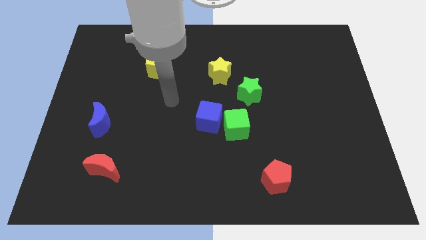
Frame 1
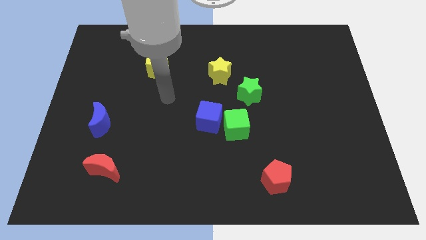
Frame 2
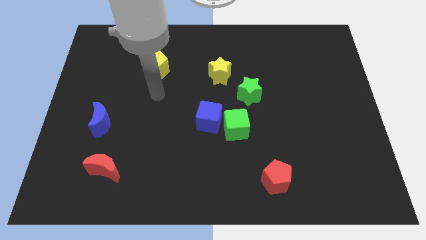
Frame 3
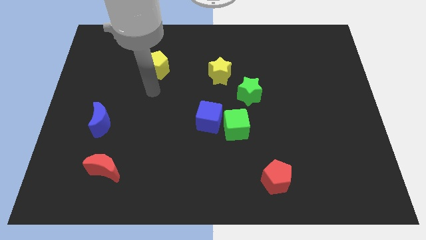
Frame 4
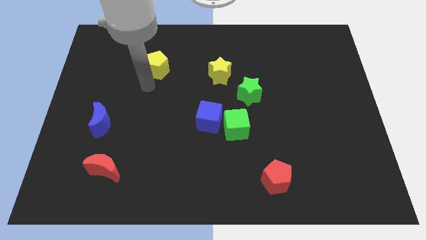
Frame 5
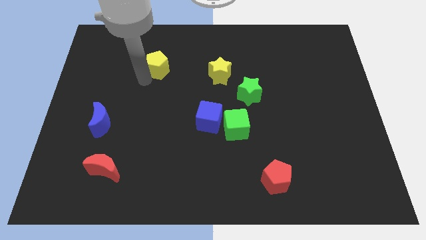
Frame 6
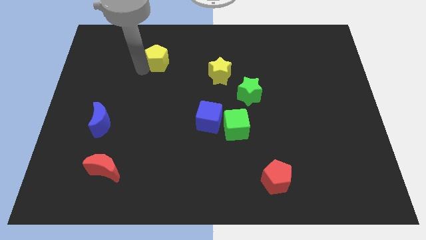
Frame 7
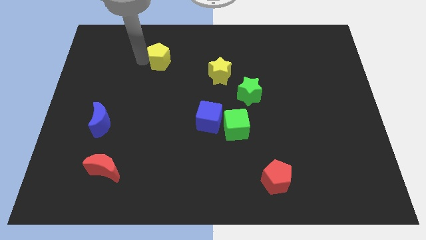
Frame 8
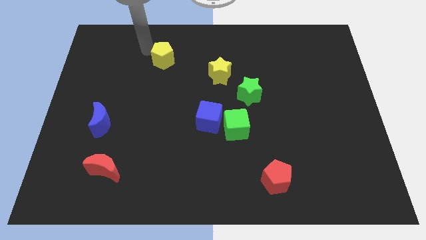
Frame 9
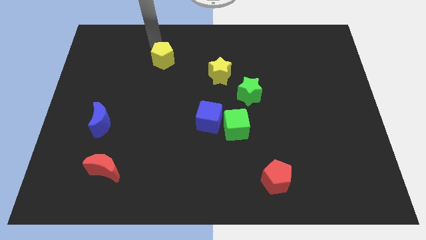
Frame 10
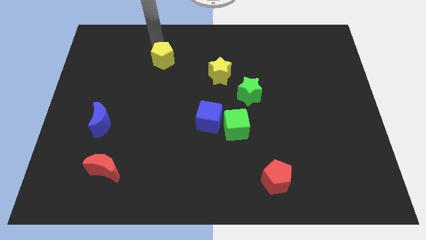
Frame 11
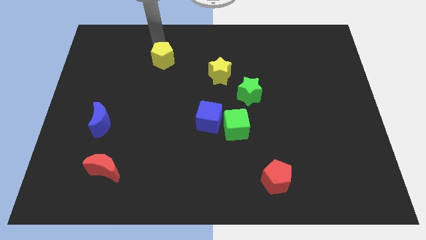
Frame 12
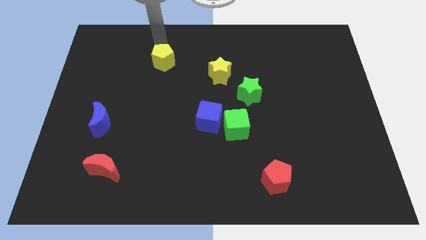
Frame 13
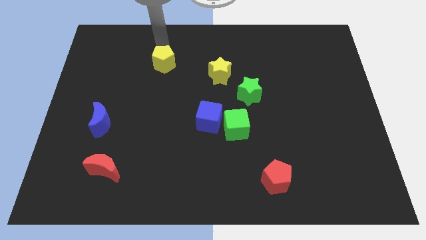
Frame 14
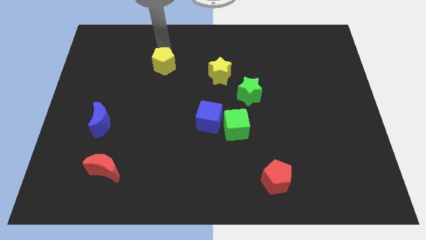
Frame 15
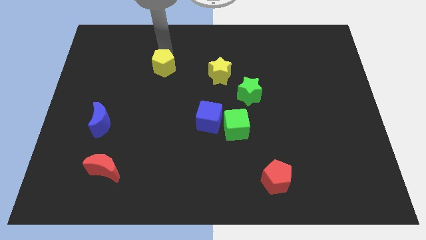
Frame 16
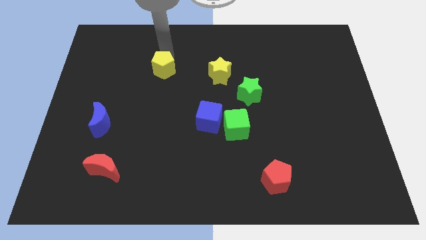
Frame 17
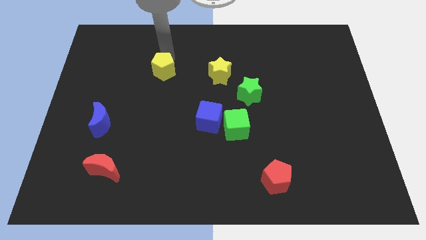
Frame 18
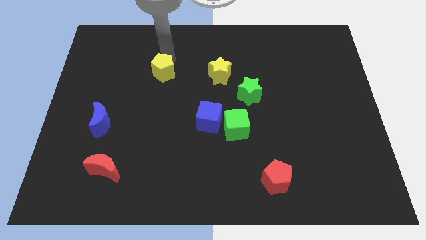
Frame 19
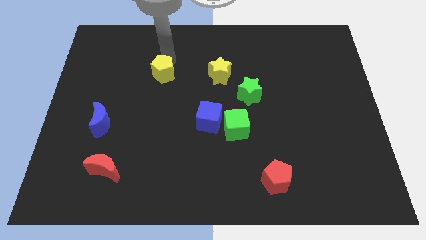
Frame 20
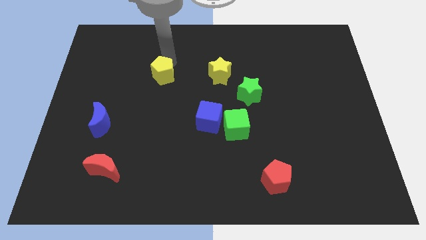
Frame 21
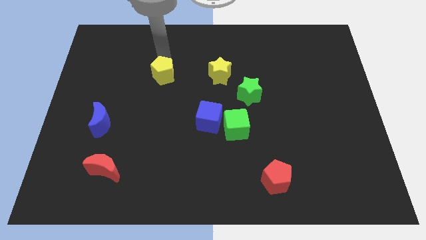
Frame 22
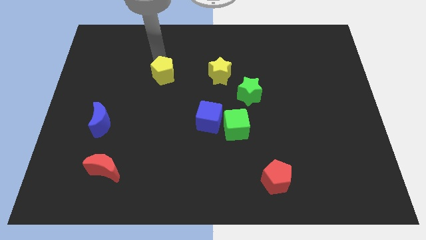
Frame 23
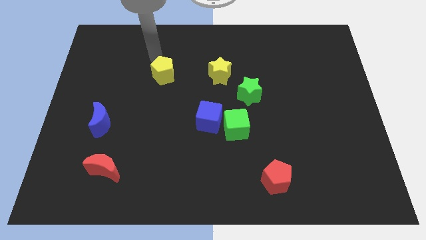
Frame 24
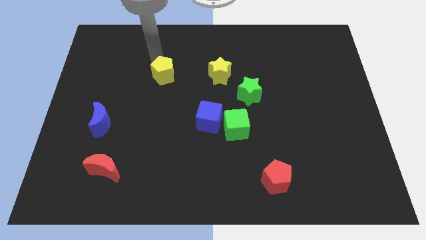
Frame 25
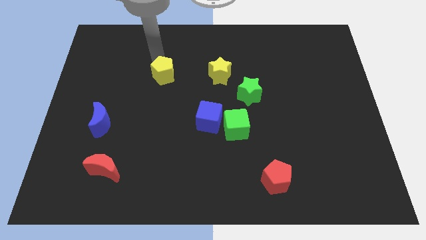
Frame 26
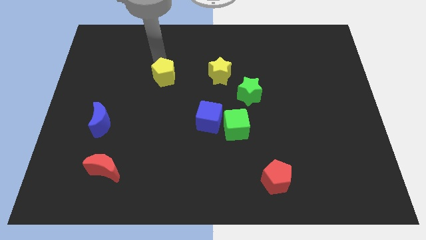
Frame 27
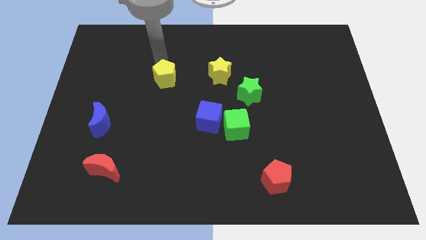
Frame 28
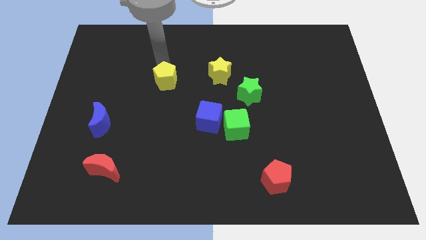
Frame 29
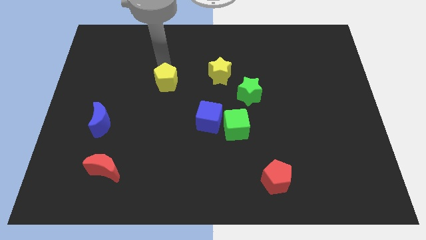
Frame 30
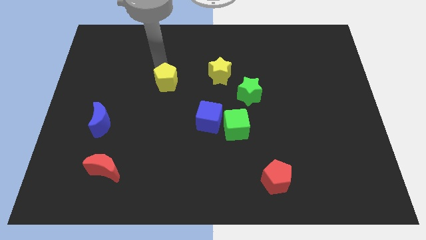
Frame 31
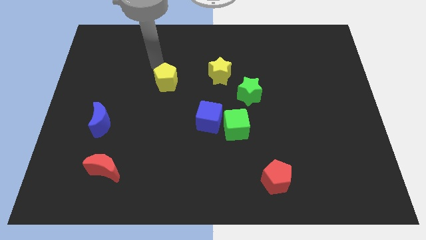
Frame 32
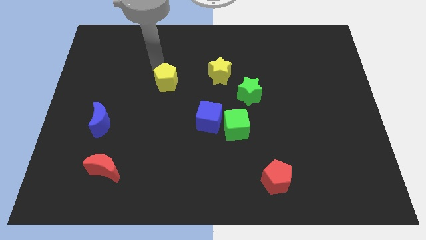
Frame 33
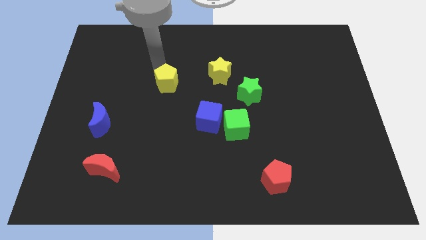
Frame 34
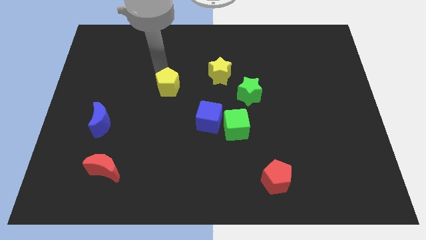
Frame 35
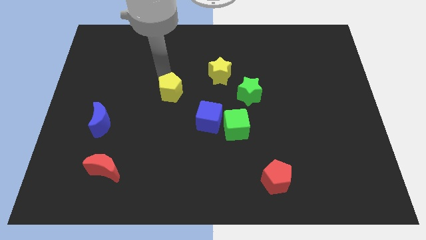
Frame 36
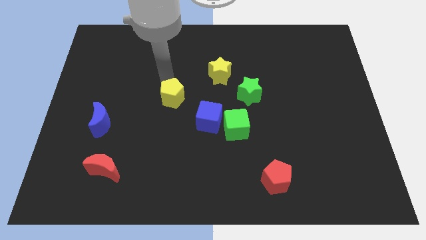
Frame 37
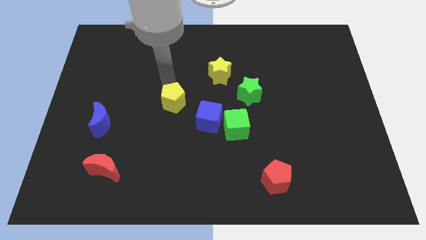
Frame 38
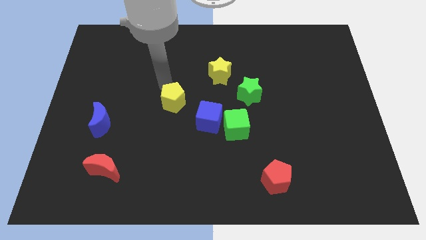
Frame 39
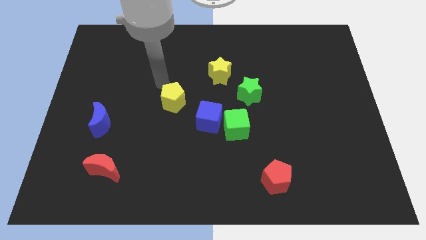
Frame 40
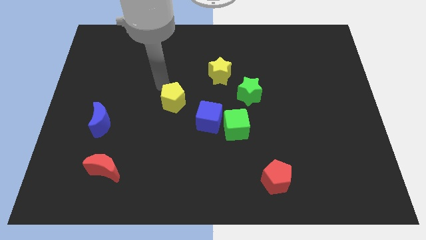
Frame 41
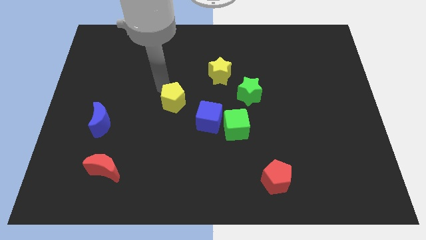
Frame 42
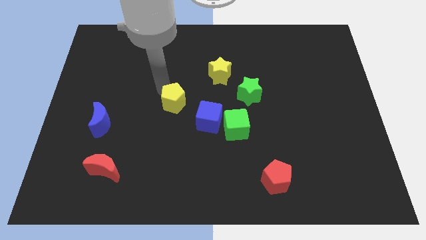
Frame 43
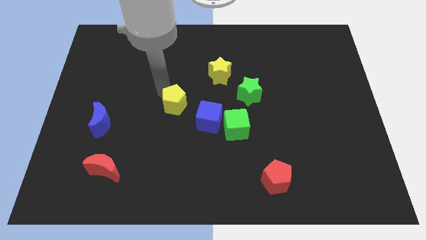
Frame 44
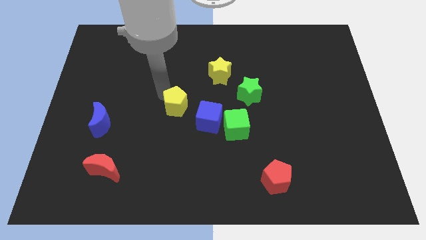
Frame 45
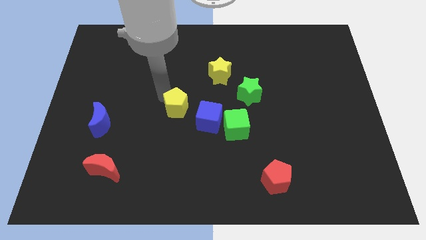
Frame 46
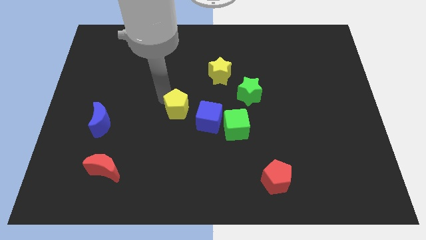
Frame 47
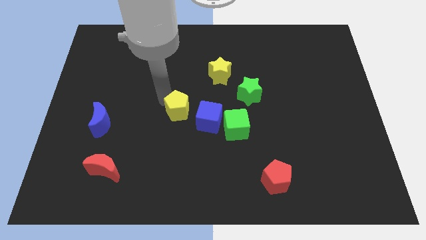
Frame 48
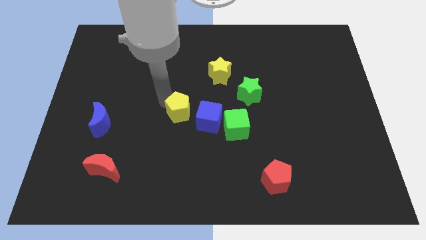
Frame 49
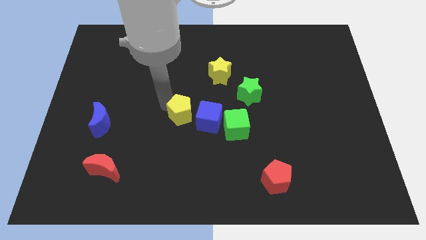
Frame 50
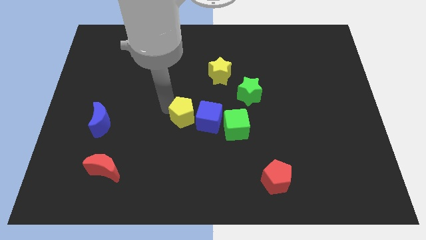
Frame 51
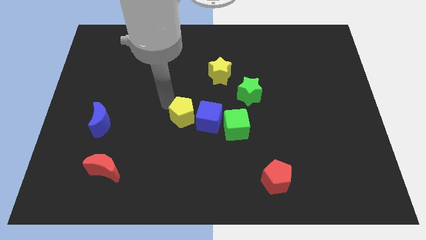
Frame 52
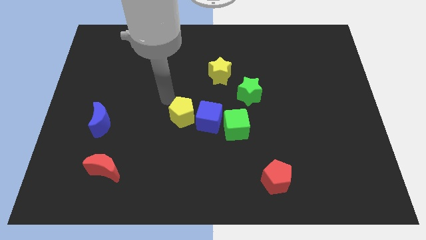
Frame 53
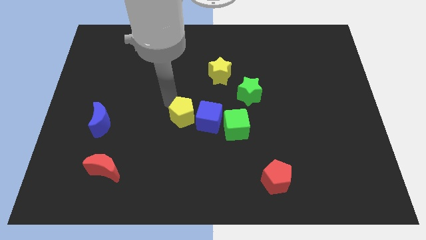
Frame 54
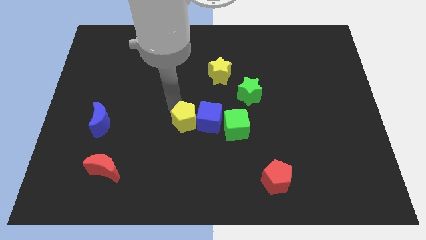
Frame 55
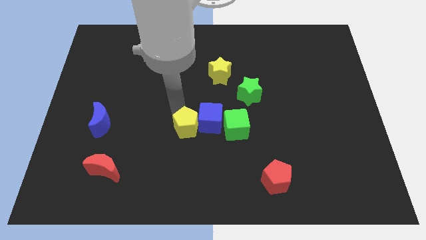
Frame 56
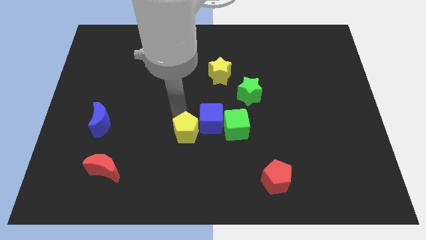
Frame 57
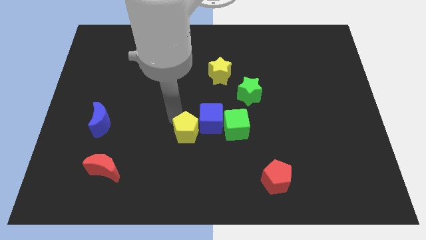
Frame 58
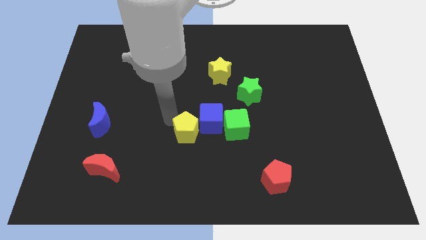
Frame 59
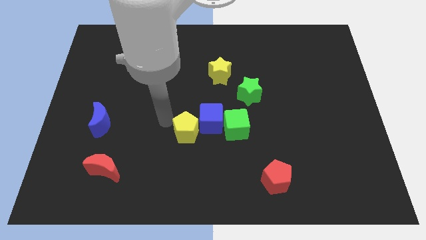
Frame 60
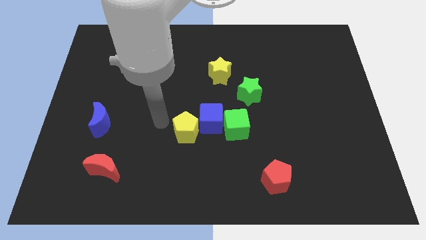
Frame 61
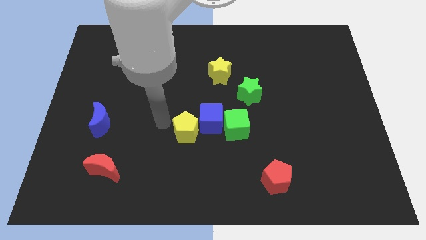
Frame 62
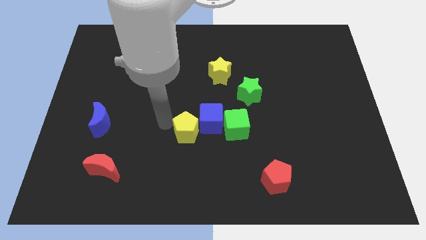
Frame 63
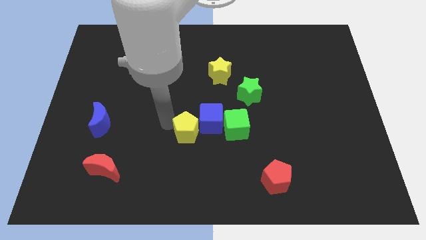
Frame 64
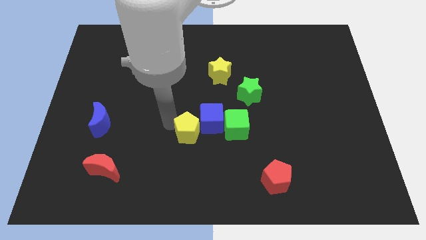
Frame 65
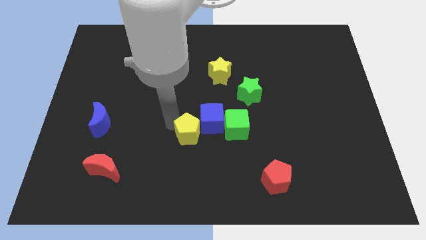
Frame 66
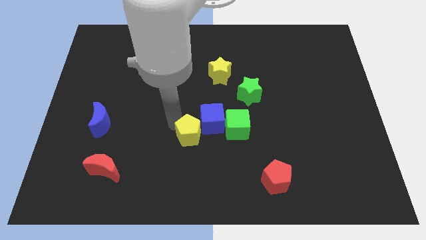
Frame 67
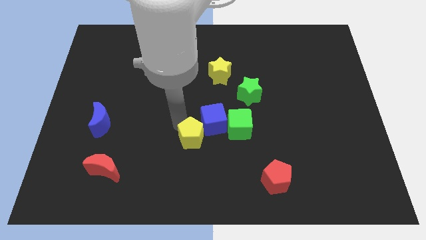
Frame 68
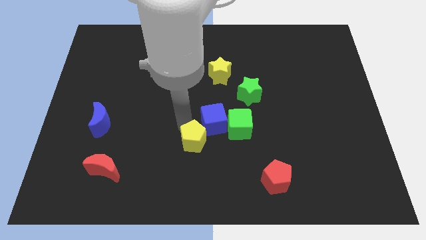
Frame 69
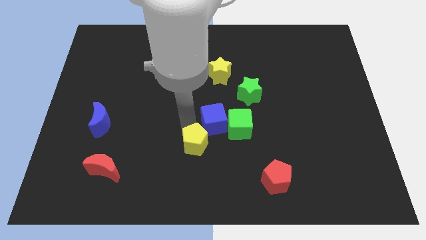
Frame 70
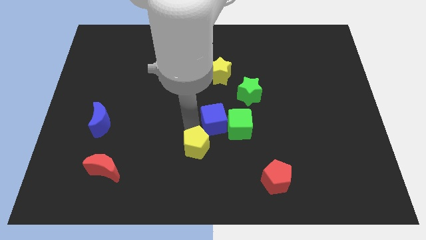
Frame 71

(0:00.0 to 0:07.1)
slide the yellow pentagon downwards and then right
